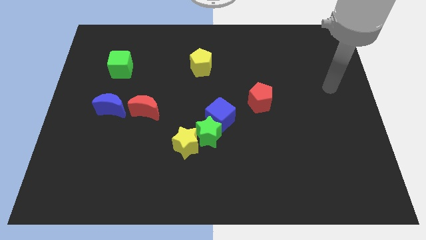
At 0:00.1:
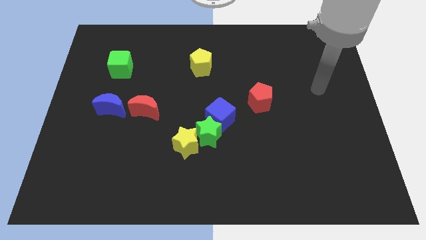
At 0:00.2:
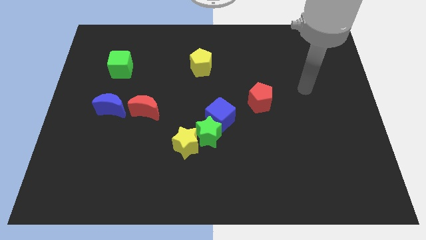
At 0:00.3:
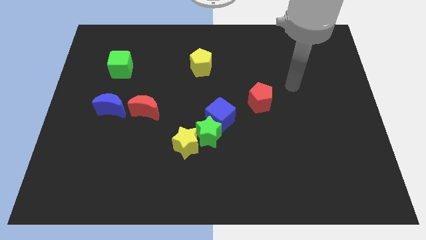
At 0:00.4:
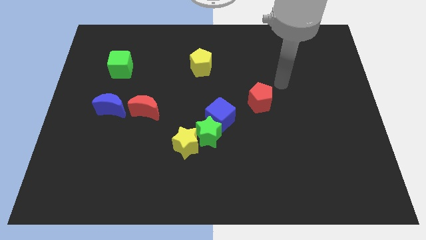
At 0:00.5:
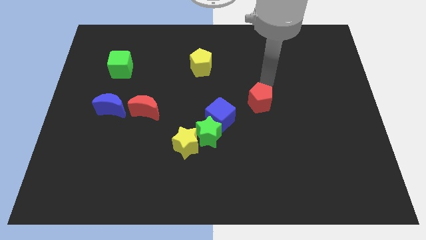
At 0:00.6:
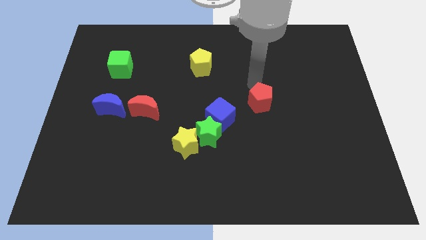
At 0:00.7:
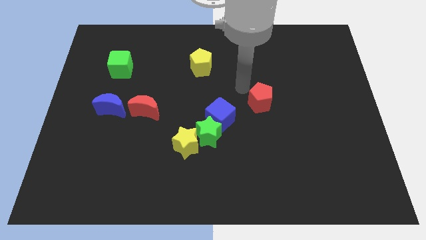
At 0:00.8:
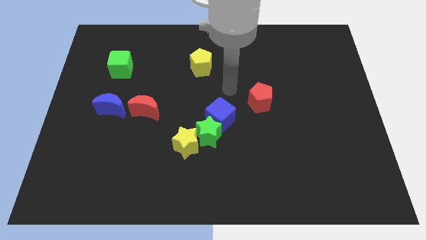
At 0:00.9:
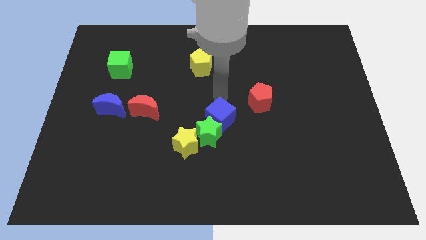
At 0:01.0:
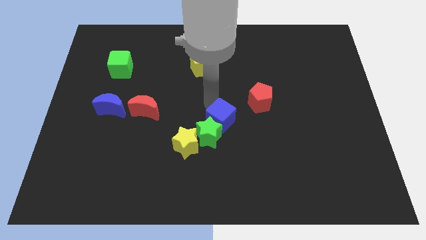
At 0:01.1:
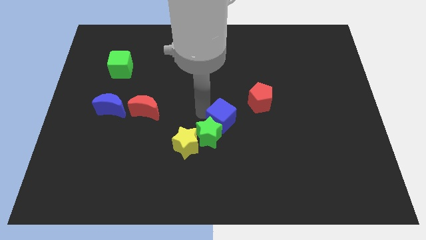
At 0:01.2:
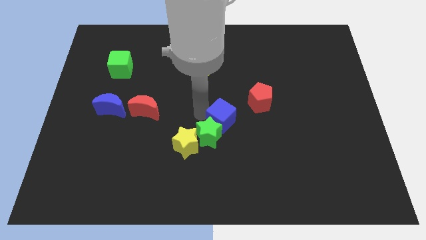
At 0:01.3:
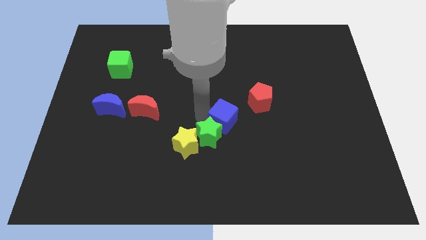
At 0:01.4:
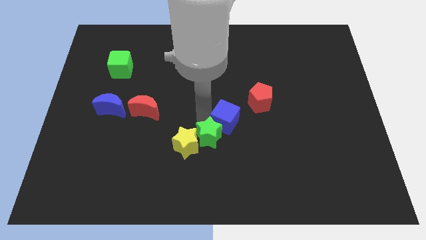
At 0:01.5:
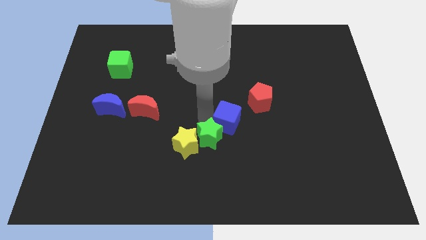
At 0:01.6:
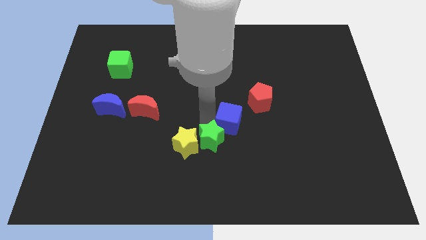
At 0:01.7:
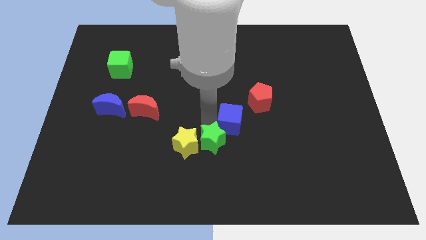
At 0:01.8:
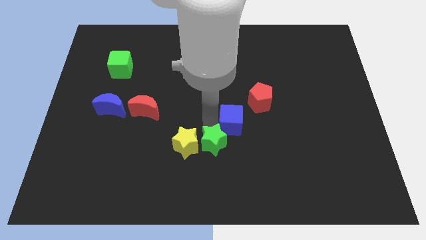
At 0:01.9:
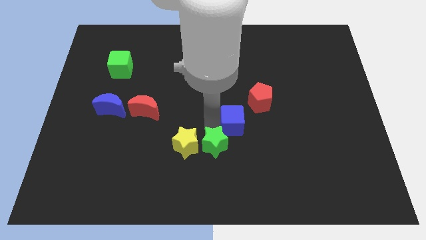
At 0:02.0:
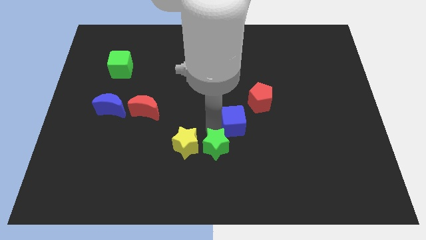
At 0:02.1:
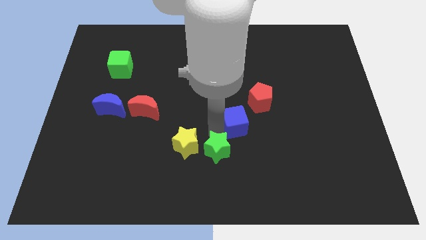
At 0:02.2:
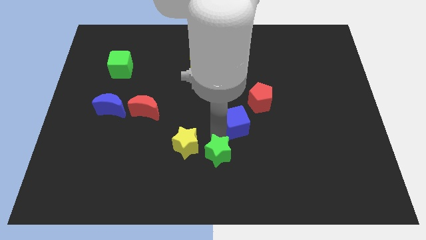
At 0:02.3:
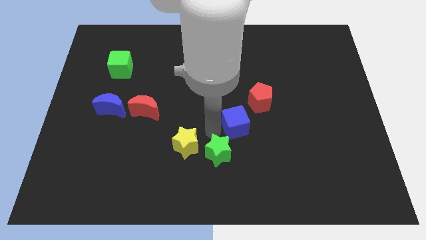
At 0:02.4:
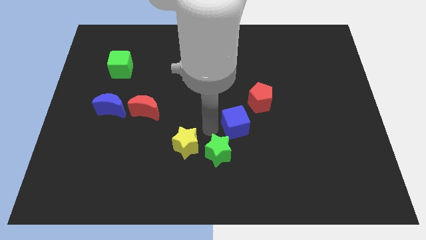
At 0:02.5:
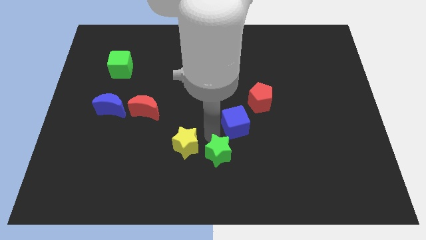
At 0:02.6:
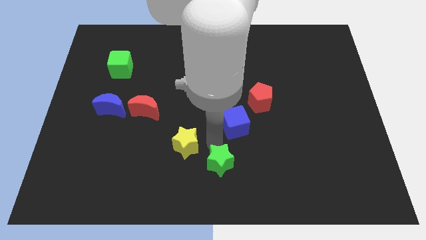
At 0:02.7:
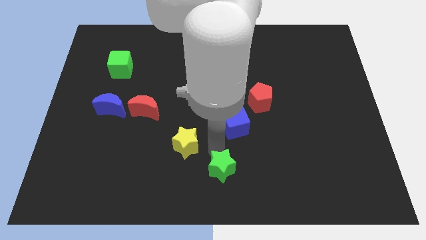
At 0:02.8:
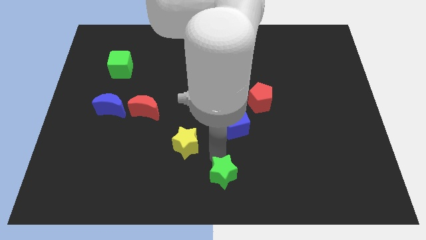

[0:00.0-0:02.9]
pull the green star apart from the yellow star and blue cube

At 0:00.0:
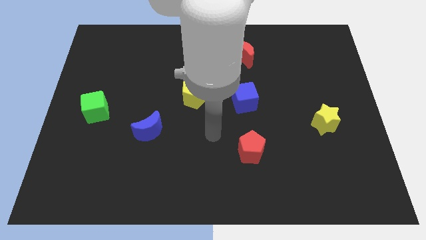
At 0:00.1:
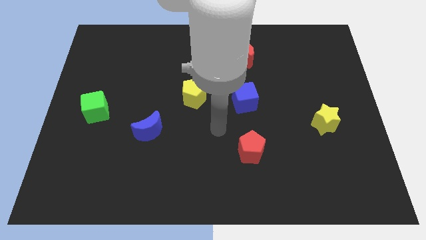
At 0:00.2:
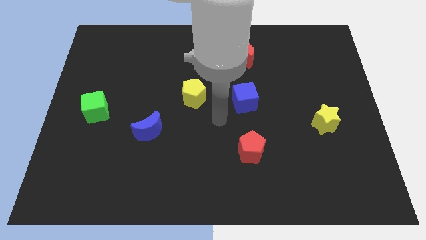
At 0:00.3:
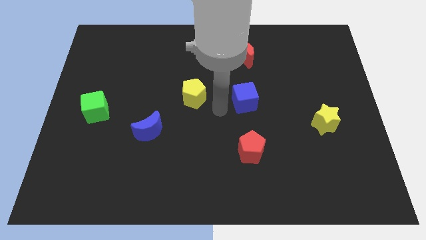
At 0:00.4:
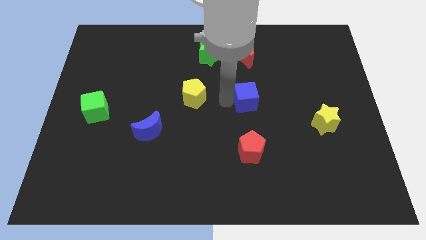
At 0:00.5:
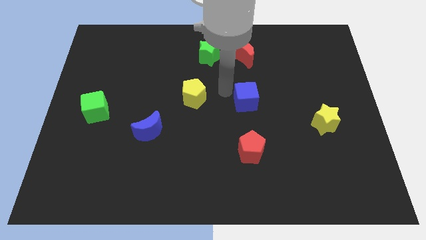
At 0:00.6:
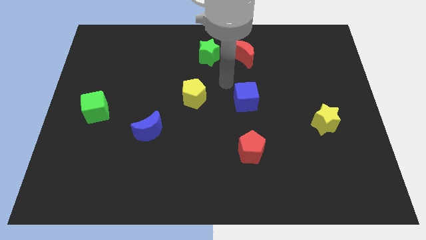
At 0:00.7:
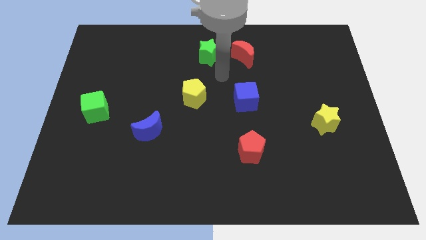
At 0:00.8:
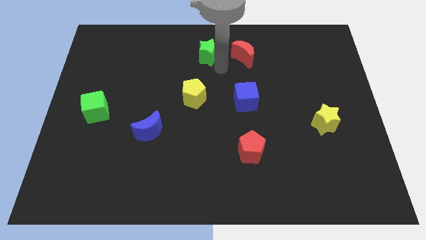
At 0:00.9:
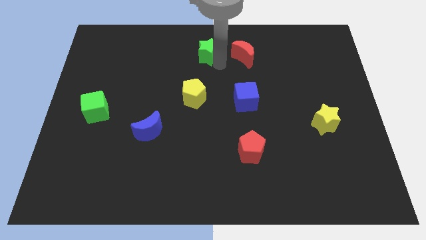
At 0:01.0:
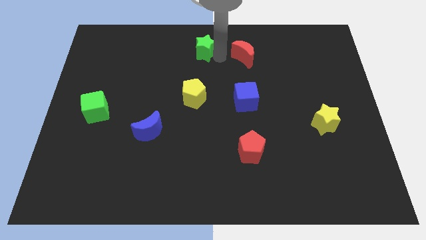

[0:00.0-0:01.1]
pull the red moon apart from the green star

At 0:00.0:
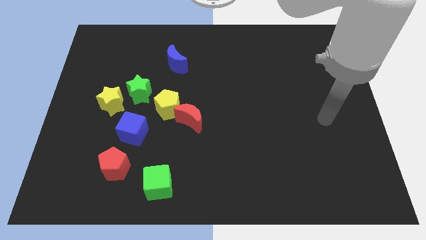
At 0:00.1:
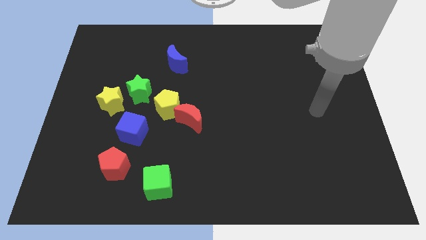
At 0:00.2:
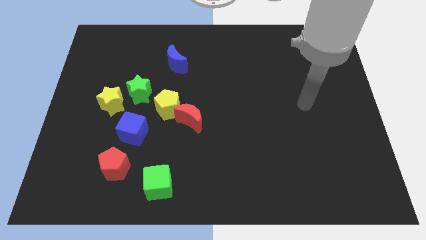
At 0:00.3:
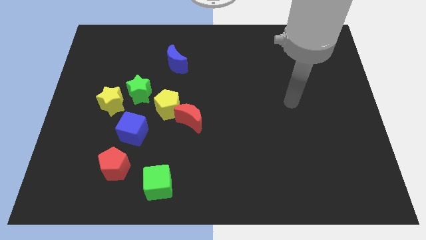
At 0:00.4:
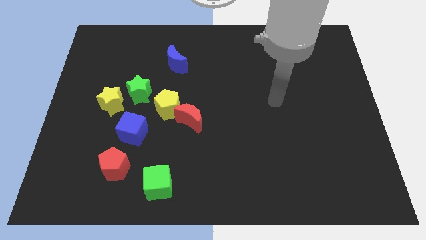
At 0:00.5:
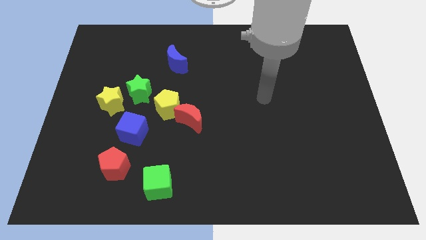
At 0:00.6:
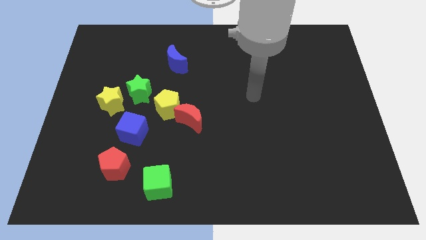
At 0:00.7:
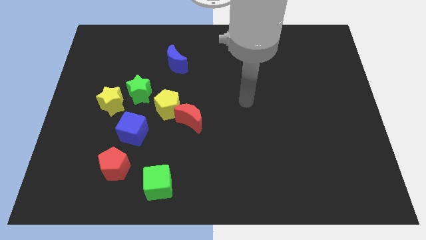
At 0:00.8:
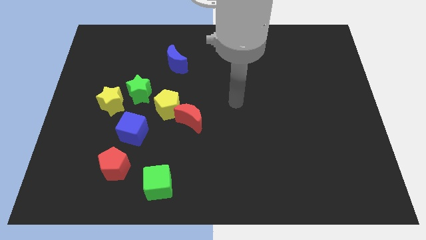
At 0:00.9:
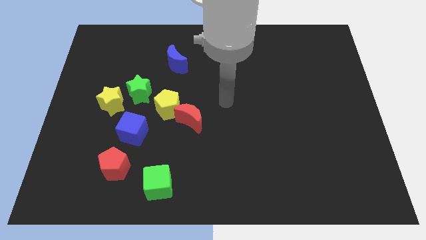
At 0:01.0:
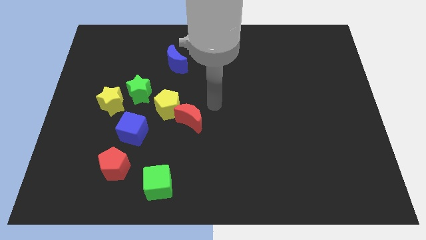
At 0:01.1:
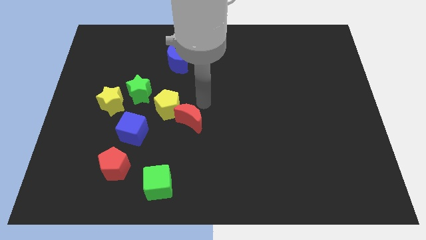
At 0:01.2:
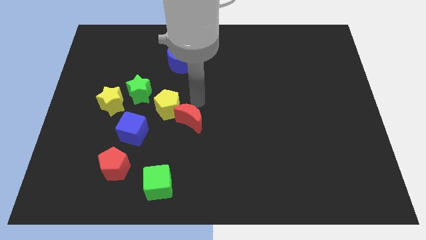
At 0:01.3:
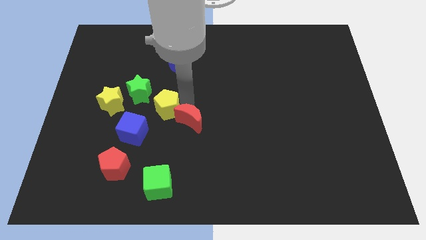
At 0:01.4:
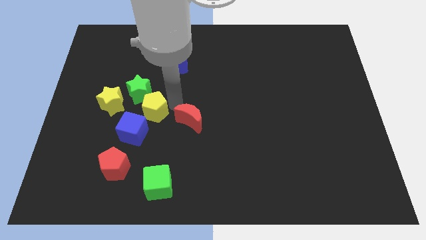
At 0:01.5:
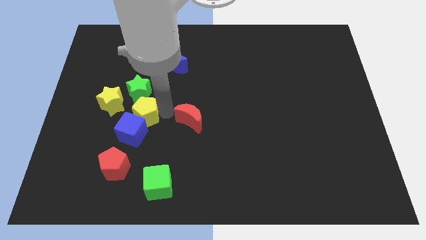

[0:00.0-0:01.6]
pull the red moon apart from the yellow pentagon

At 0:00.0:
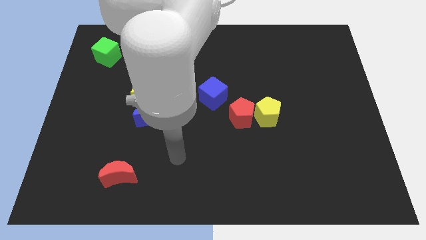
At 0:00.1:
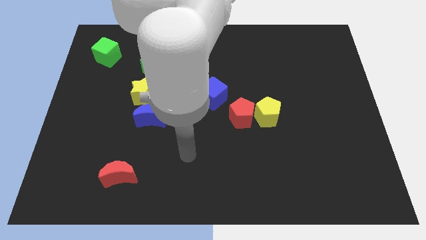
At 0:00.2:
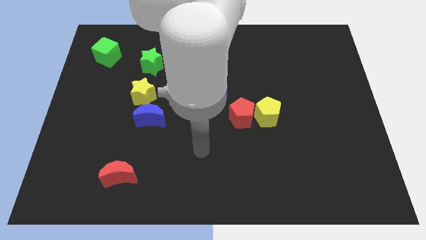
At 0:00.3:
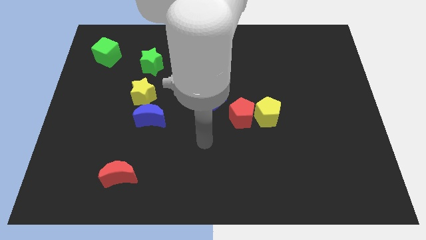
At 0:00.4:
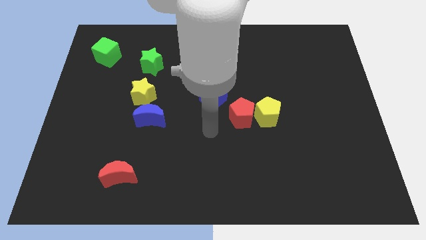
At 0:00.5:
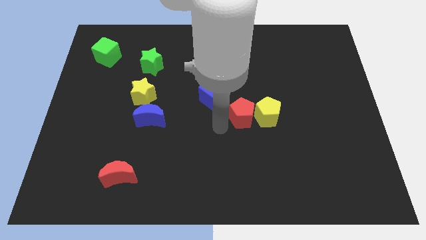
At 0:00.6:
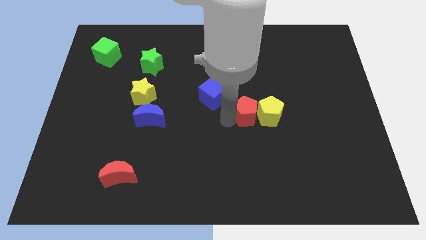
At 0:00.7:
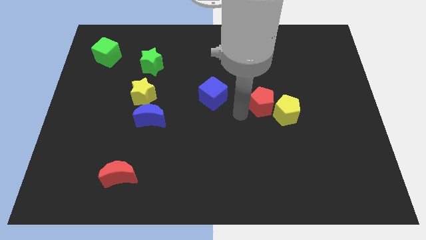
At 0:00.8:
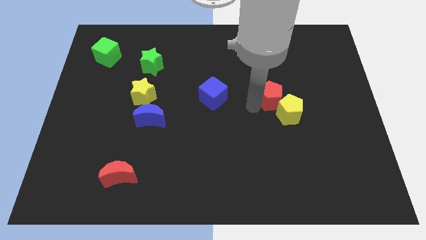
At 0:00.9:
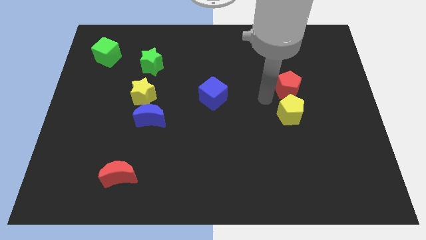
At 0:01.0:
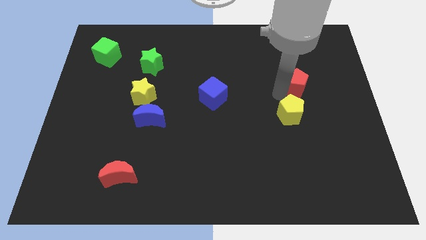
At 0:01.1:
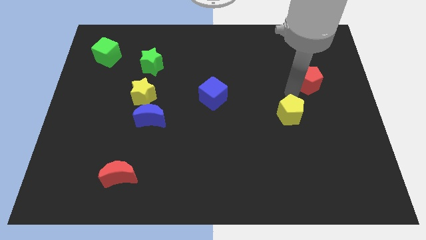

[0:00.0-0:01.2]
move the yellow pentagon away from the red pentagon

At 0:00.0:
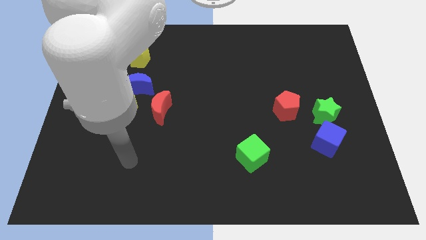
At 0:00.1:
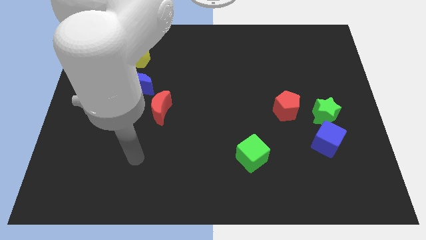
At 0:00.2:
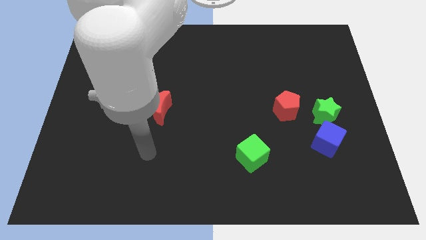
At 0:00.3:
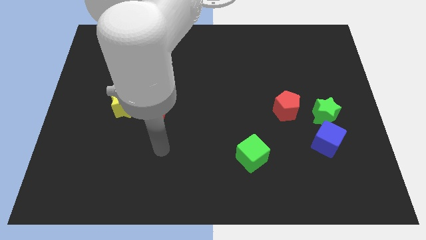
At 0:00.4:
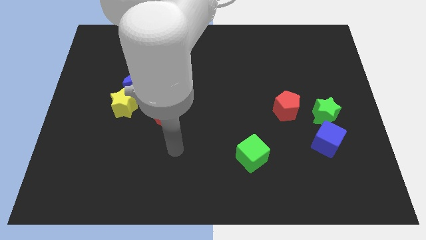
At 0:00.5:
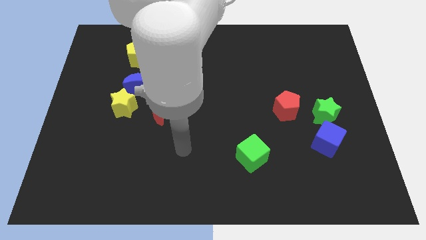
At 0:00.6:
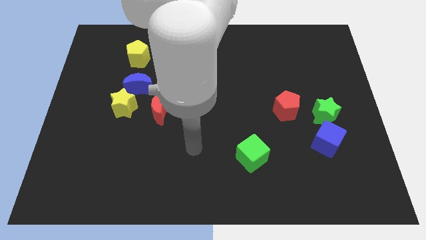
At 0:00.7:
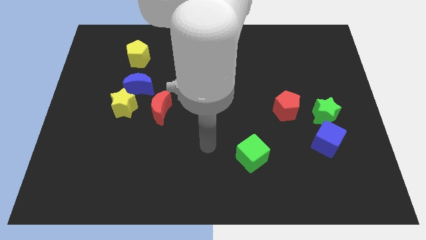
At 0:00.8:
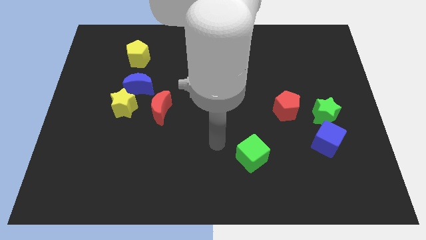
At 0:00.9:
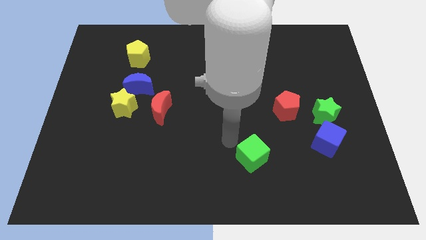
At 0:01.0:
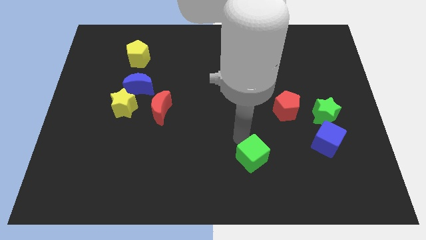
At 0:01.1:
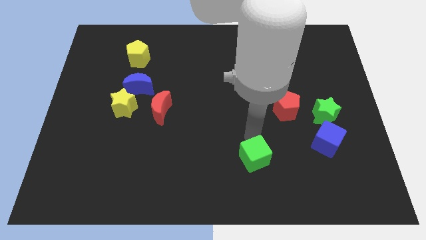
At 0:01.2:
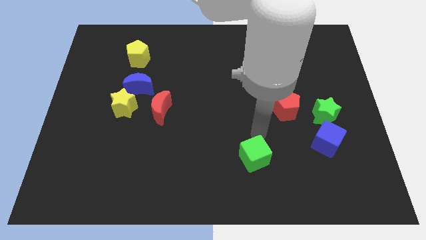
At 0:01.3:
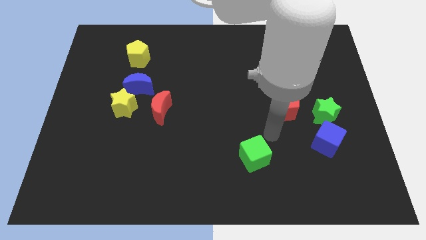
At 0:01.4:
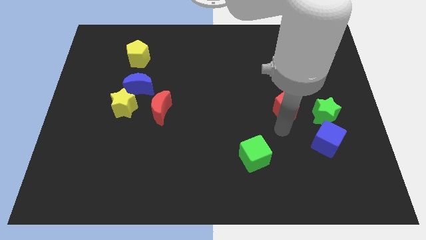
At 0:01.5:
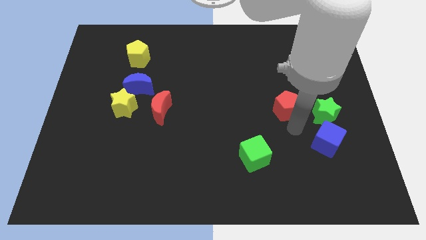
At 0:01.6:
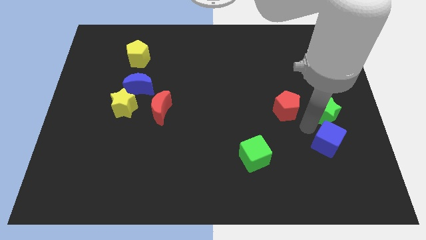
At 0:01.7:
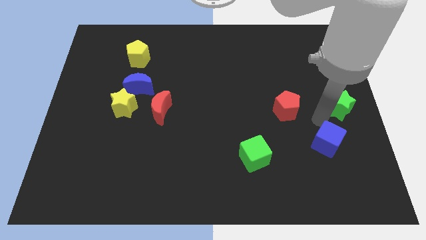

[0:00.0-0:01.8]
separate the blue cube from the green star

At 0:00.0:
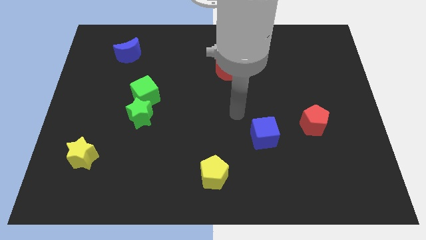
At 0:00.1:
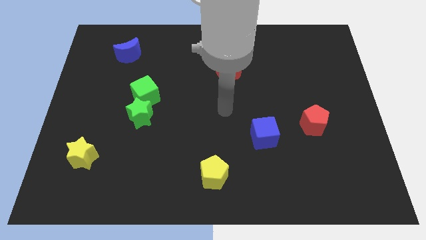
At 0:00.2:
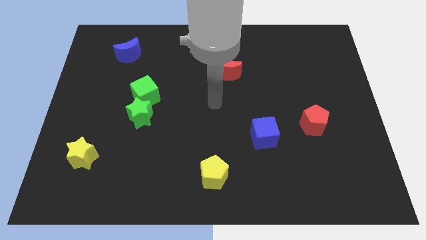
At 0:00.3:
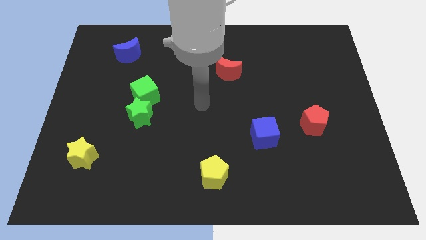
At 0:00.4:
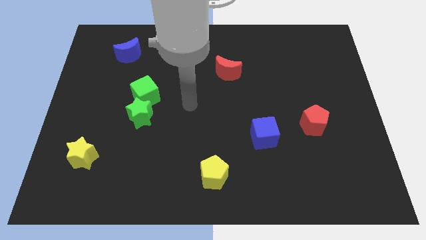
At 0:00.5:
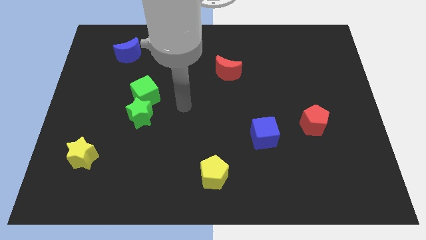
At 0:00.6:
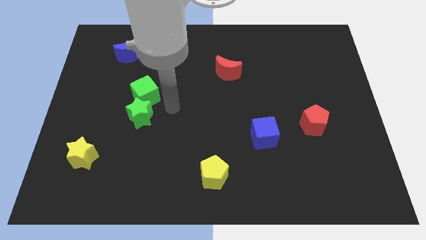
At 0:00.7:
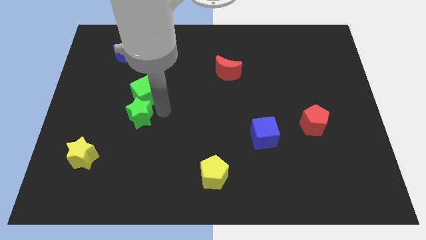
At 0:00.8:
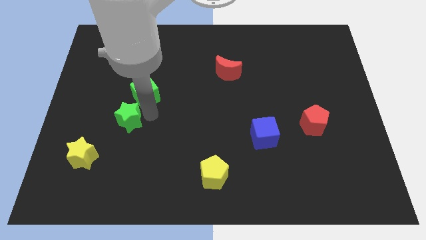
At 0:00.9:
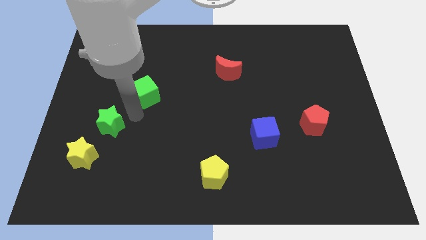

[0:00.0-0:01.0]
move the green cube away from the green star
